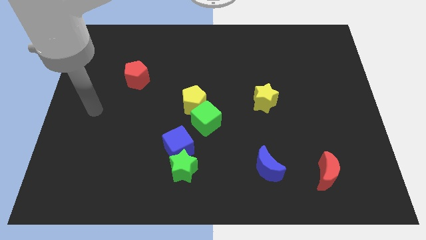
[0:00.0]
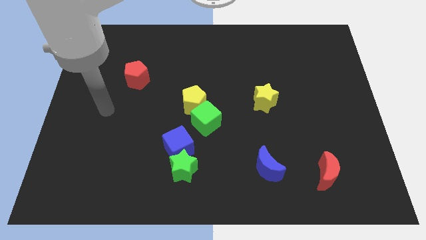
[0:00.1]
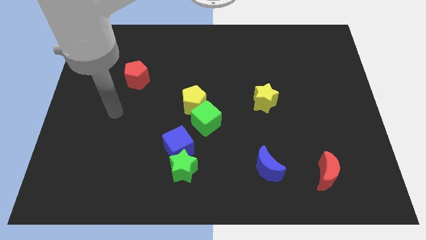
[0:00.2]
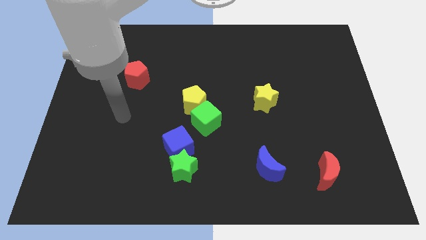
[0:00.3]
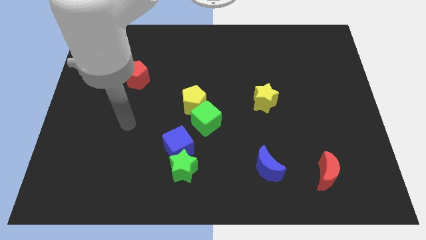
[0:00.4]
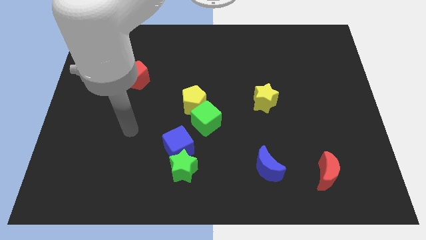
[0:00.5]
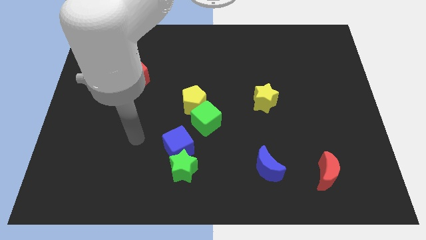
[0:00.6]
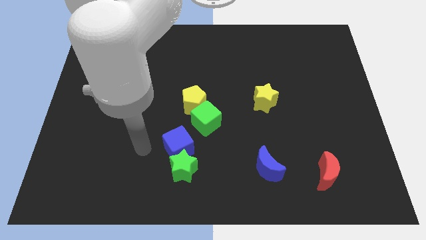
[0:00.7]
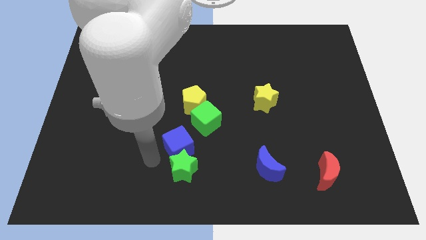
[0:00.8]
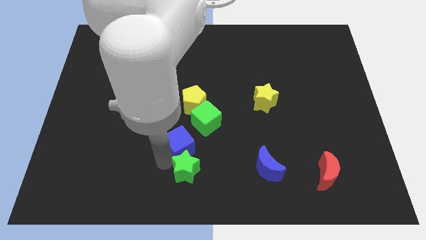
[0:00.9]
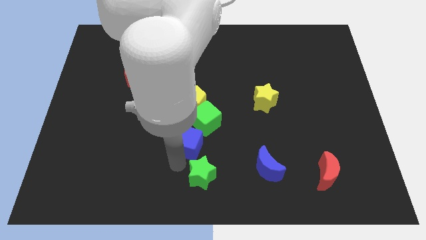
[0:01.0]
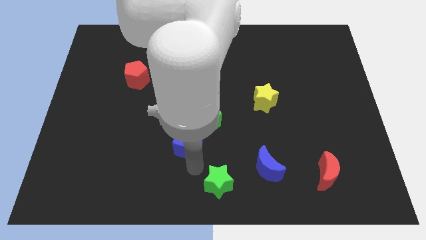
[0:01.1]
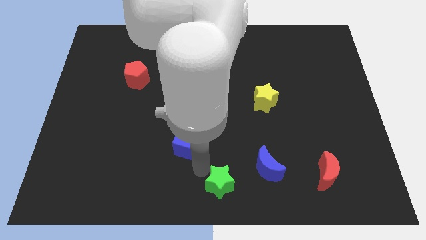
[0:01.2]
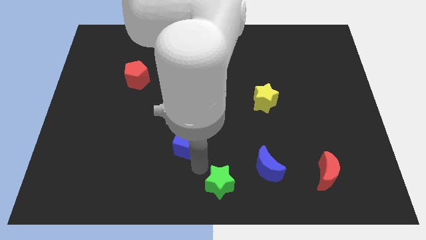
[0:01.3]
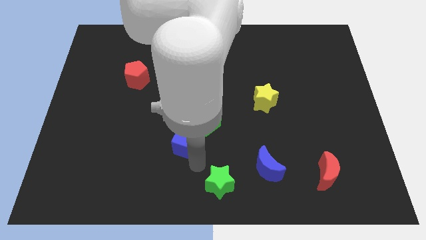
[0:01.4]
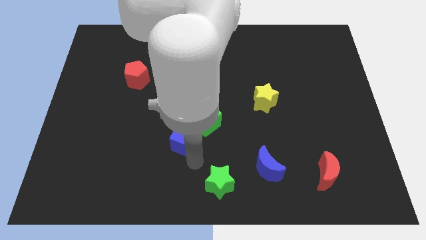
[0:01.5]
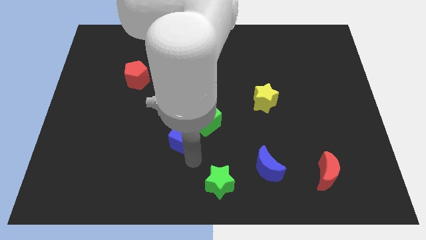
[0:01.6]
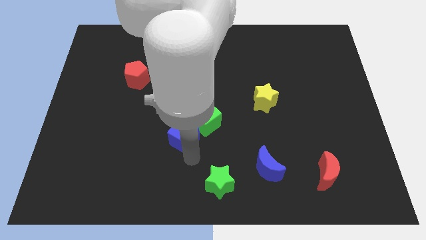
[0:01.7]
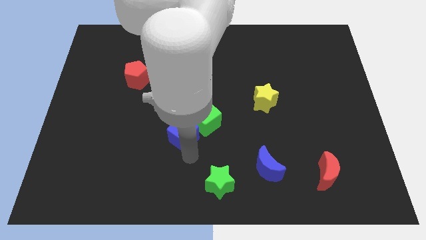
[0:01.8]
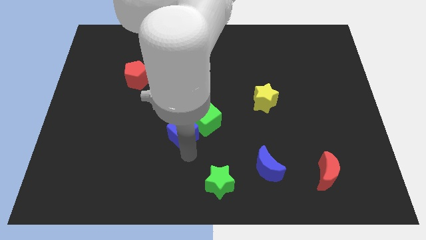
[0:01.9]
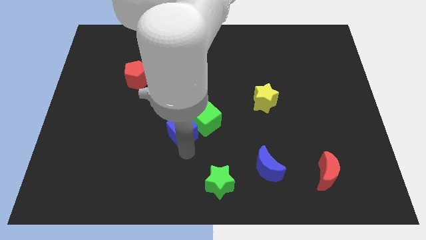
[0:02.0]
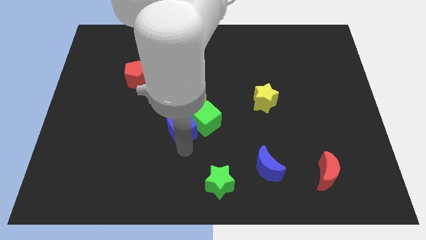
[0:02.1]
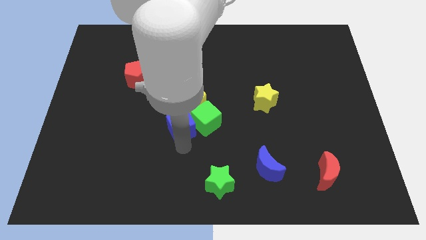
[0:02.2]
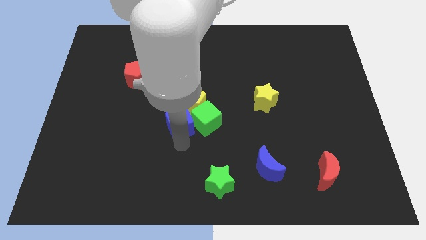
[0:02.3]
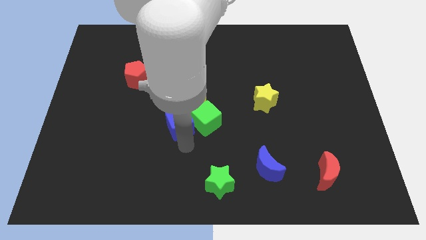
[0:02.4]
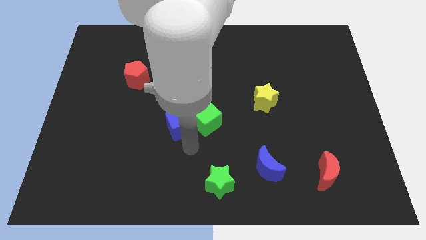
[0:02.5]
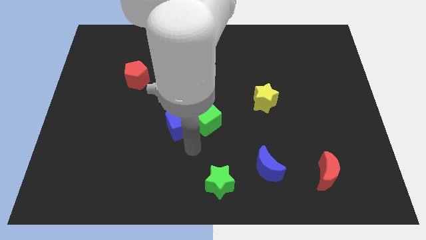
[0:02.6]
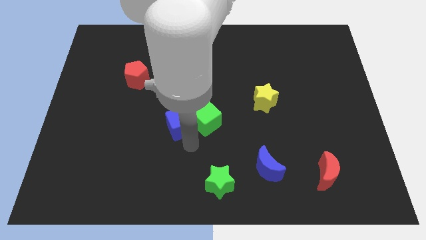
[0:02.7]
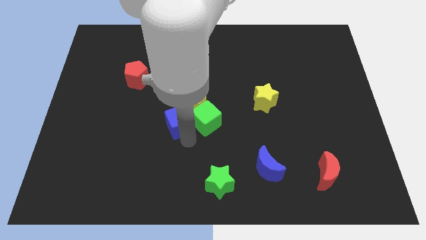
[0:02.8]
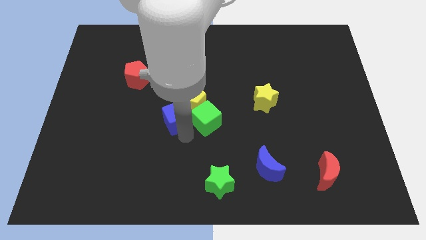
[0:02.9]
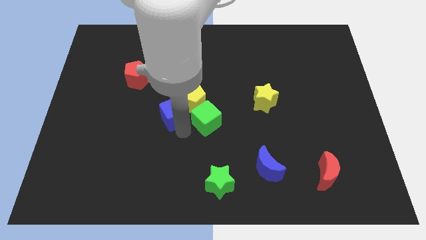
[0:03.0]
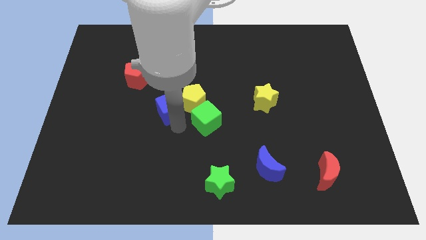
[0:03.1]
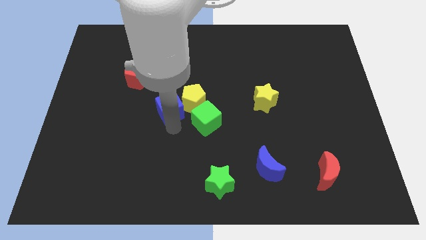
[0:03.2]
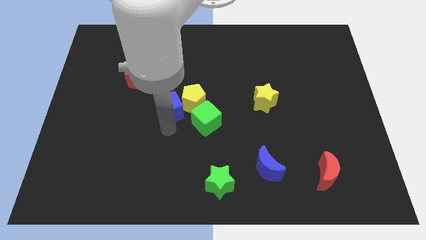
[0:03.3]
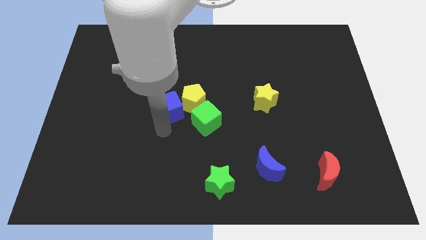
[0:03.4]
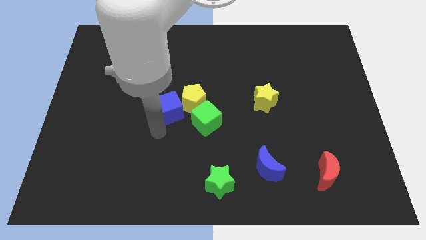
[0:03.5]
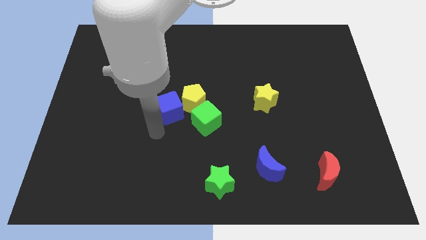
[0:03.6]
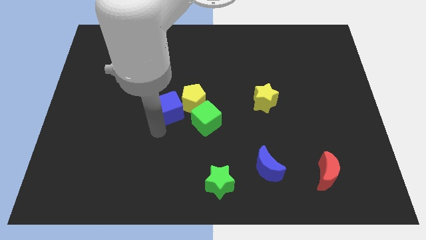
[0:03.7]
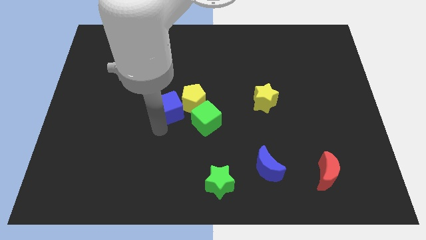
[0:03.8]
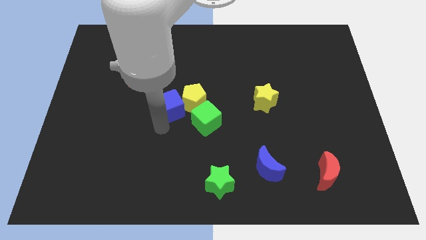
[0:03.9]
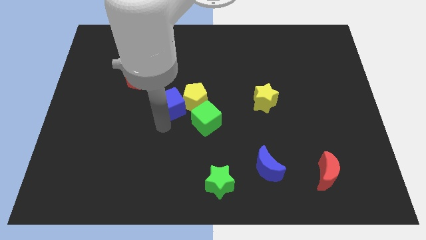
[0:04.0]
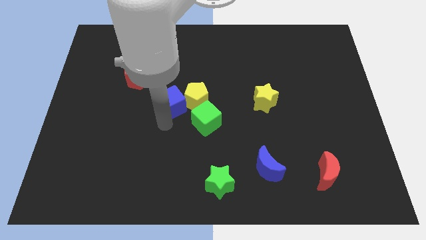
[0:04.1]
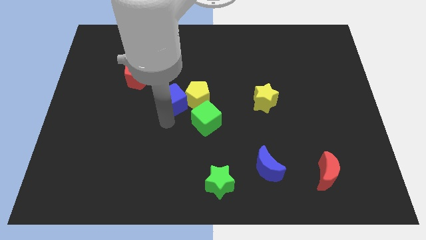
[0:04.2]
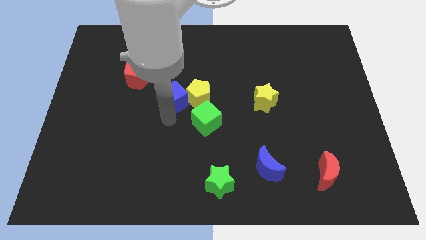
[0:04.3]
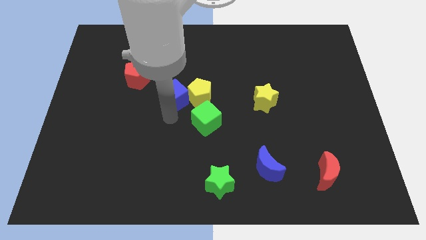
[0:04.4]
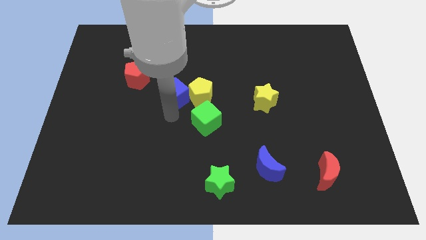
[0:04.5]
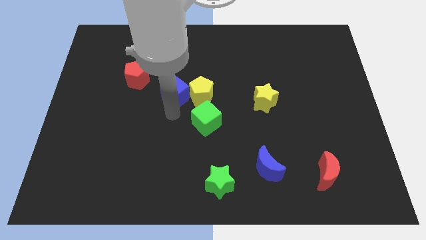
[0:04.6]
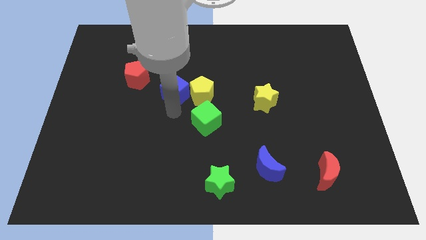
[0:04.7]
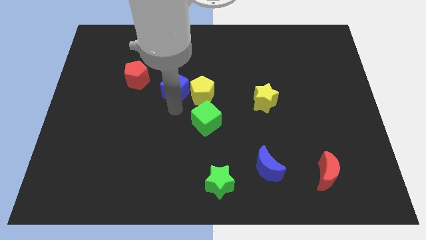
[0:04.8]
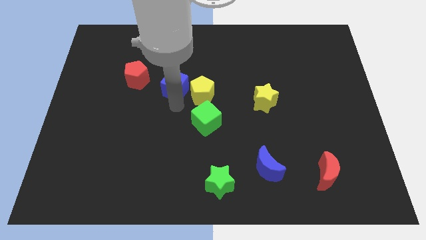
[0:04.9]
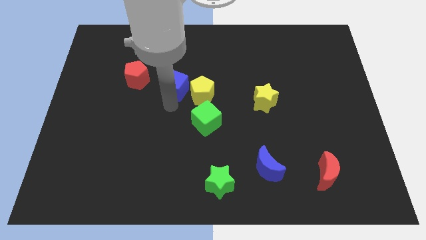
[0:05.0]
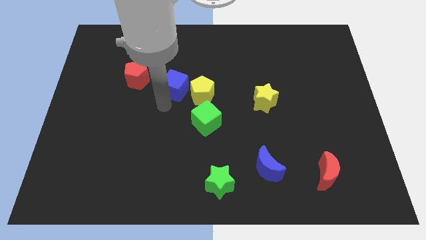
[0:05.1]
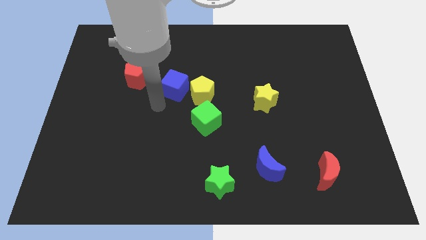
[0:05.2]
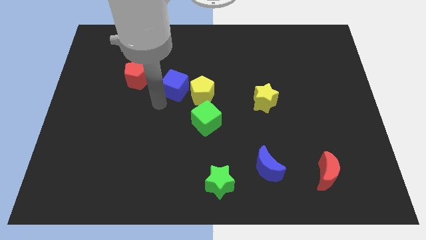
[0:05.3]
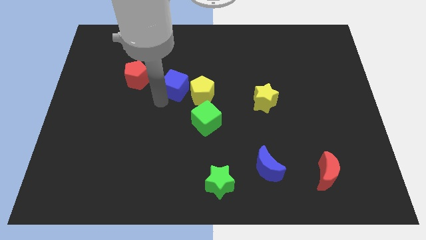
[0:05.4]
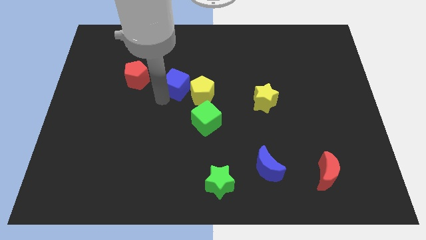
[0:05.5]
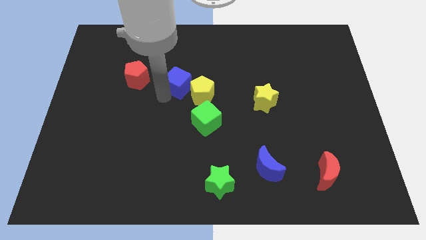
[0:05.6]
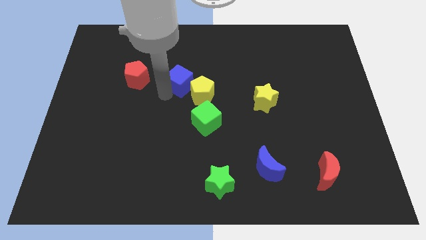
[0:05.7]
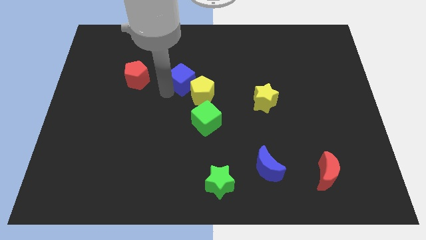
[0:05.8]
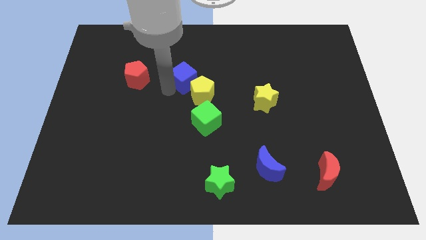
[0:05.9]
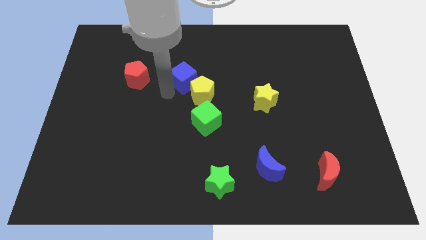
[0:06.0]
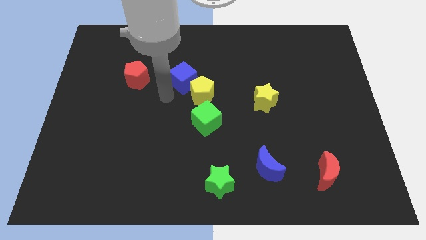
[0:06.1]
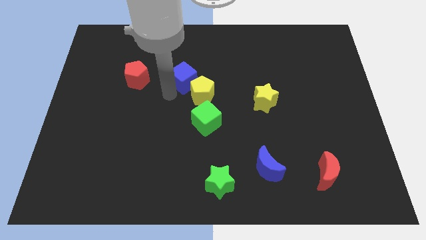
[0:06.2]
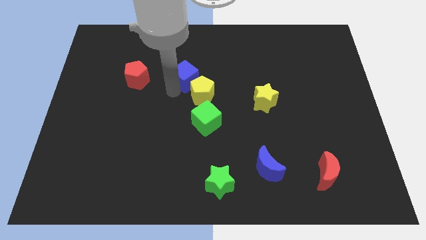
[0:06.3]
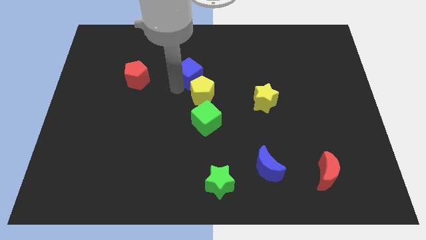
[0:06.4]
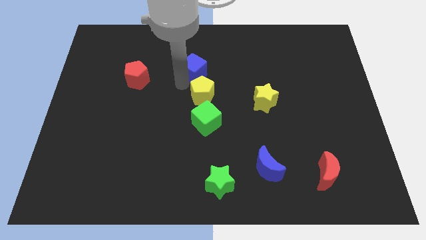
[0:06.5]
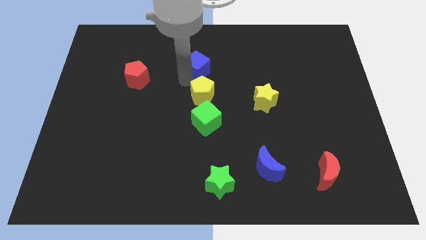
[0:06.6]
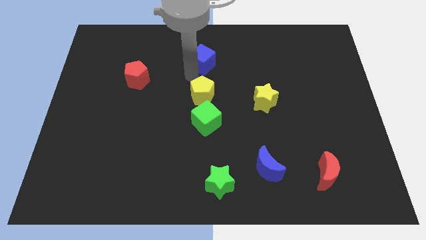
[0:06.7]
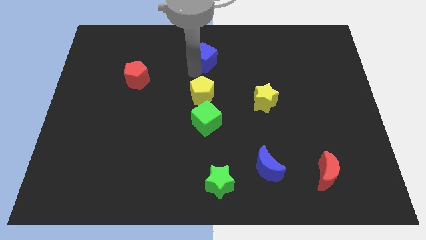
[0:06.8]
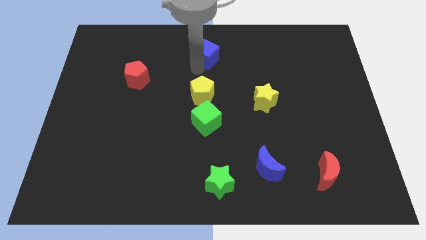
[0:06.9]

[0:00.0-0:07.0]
move the blue cube to the towards your base
